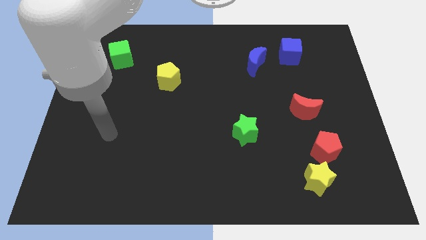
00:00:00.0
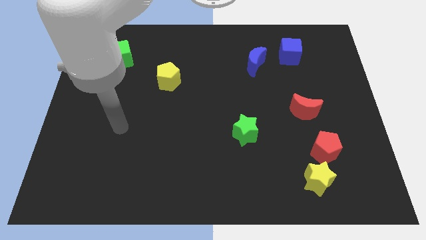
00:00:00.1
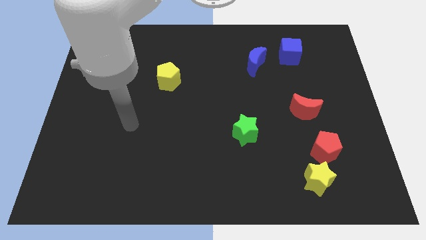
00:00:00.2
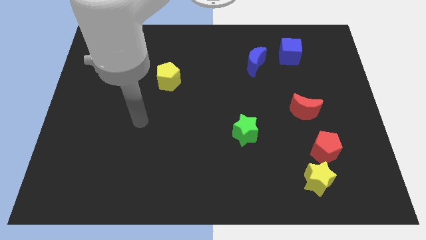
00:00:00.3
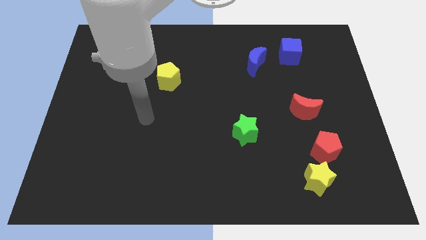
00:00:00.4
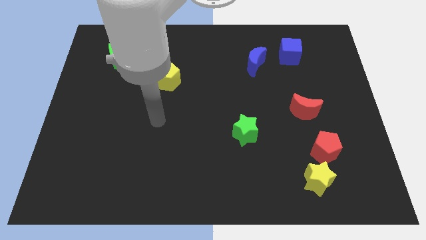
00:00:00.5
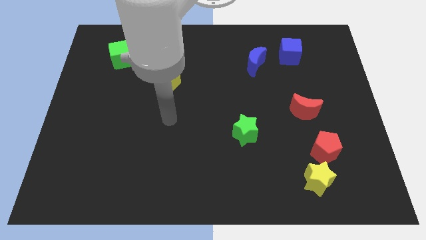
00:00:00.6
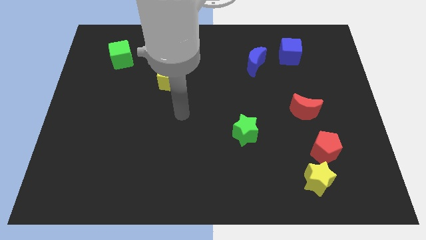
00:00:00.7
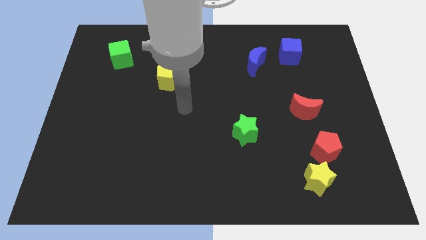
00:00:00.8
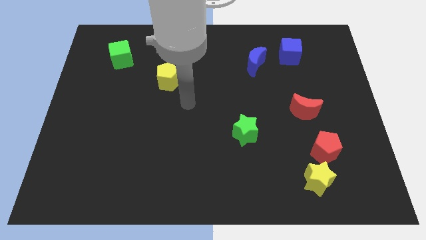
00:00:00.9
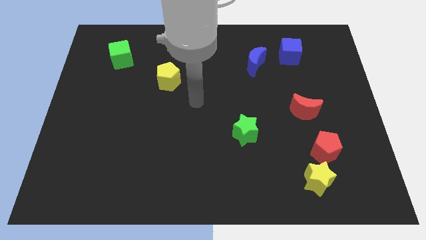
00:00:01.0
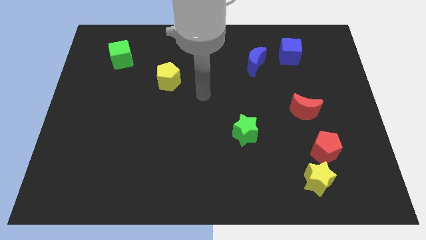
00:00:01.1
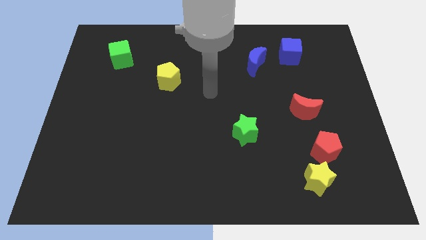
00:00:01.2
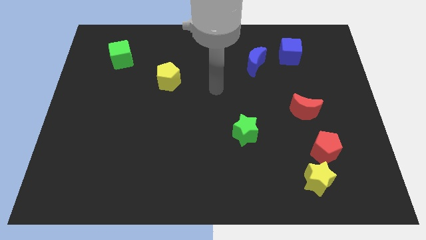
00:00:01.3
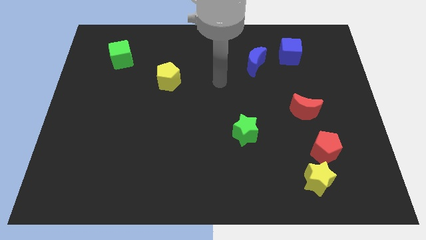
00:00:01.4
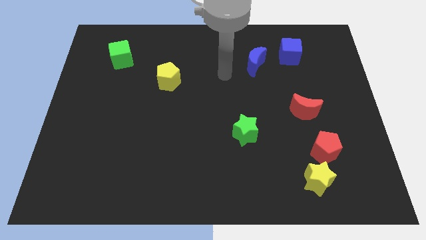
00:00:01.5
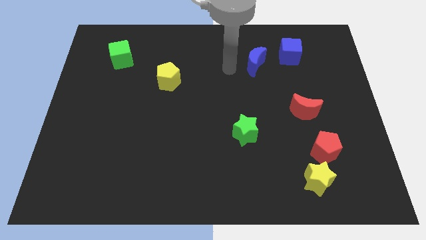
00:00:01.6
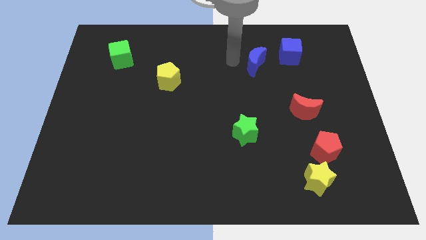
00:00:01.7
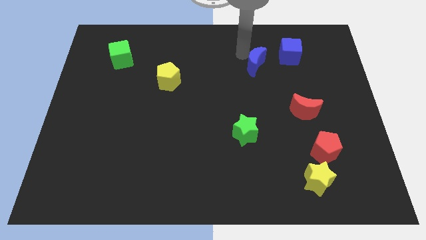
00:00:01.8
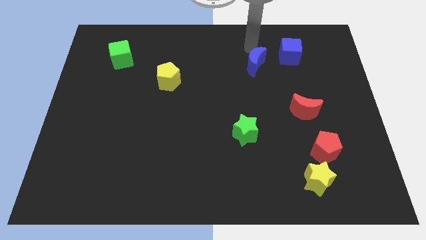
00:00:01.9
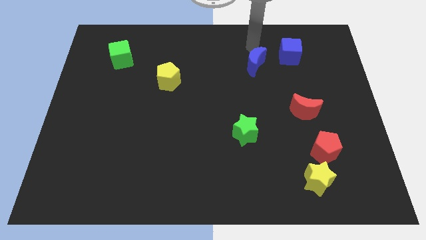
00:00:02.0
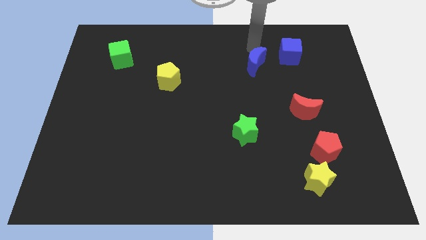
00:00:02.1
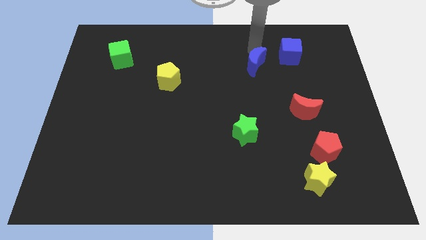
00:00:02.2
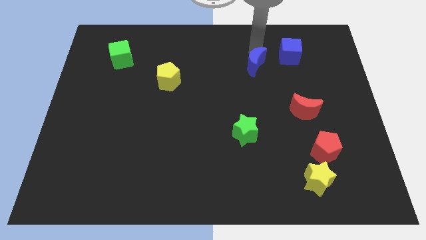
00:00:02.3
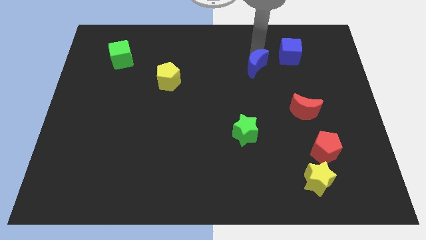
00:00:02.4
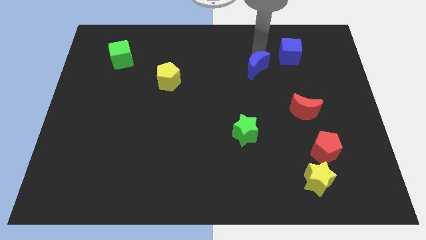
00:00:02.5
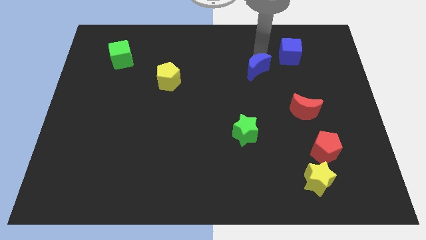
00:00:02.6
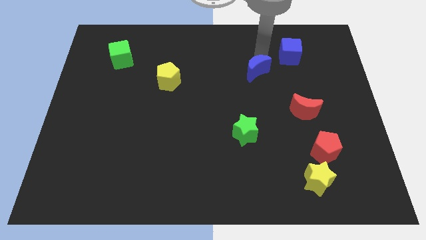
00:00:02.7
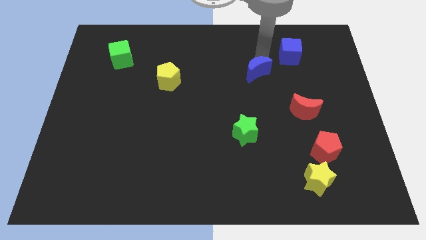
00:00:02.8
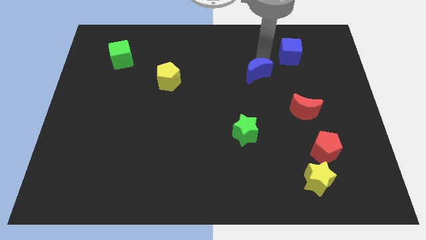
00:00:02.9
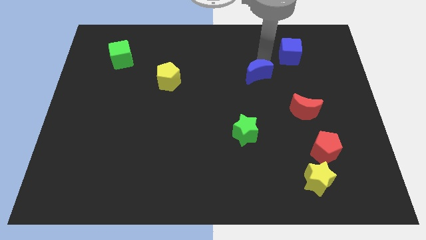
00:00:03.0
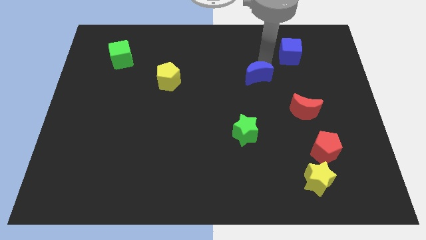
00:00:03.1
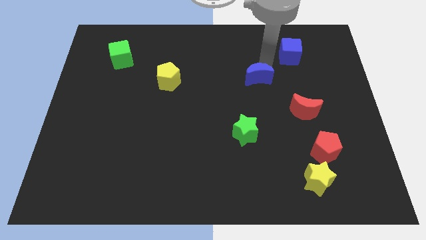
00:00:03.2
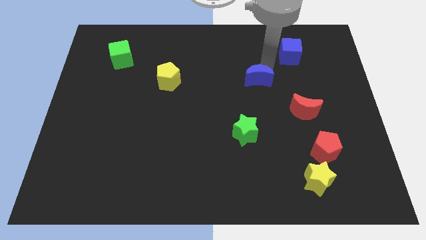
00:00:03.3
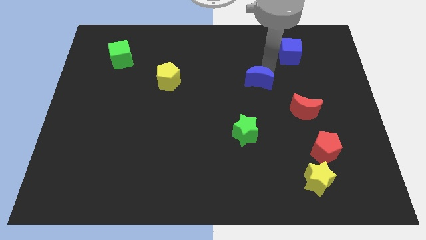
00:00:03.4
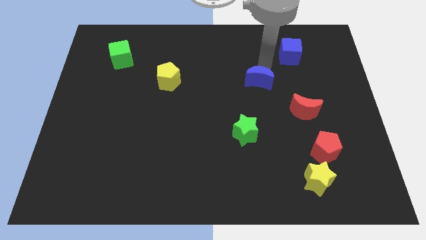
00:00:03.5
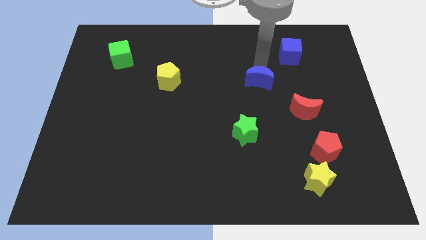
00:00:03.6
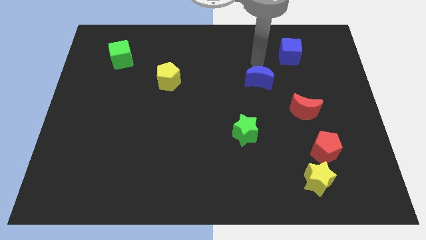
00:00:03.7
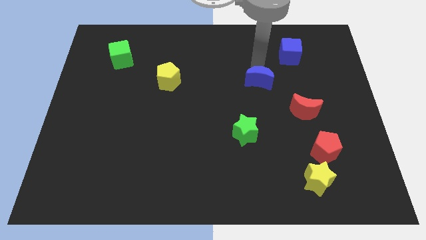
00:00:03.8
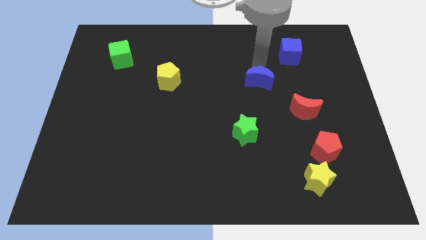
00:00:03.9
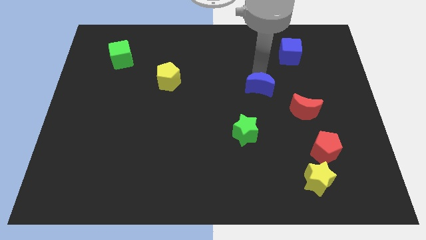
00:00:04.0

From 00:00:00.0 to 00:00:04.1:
slightly push the blue moon down

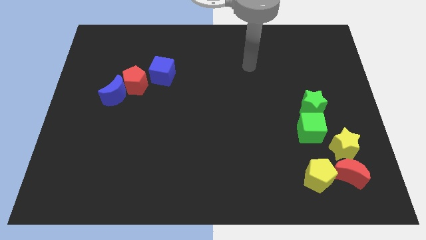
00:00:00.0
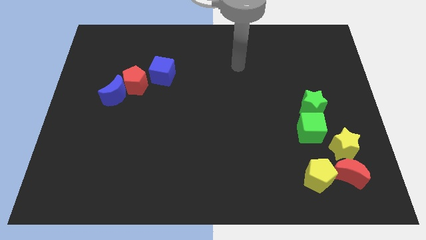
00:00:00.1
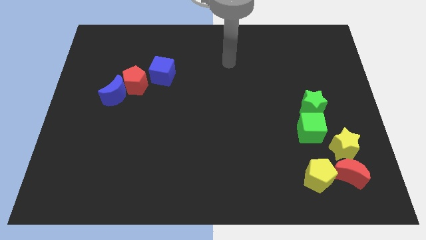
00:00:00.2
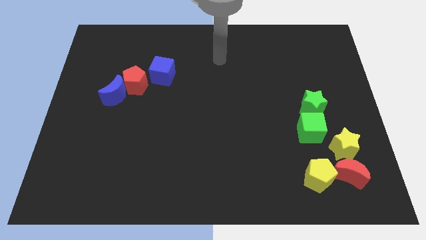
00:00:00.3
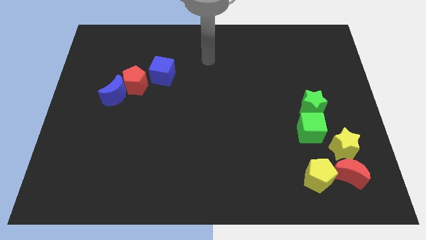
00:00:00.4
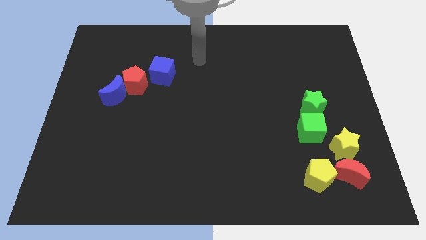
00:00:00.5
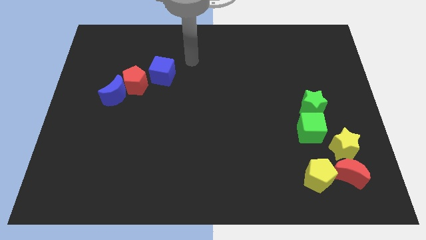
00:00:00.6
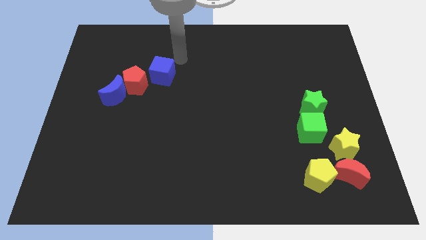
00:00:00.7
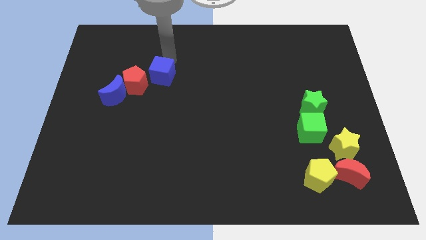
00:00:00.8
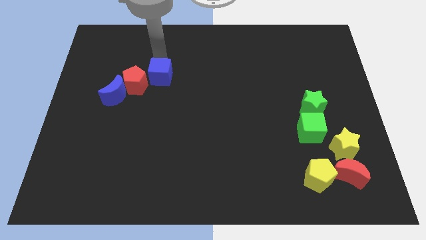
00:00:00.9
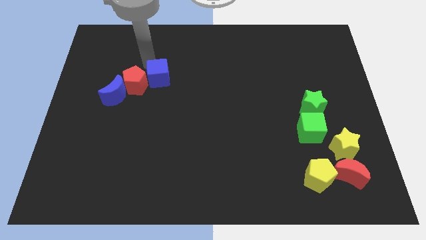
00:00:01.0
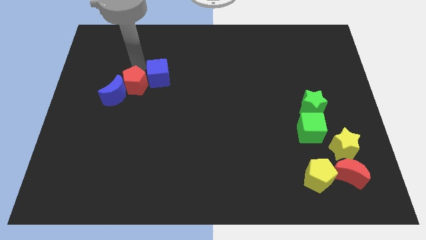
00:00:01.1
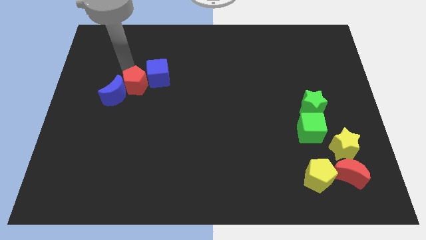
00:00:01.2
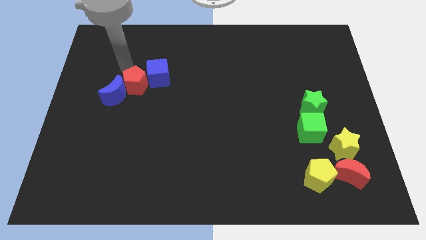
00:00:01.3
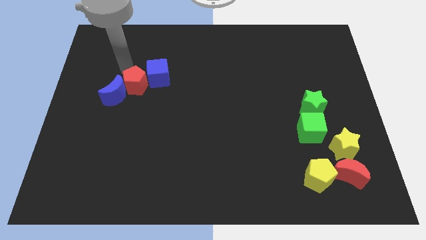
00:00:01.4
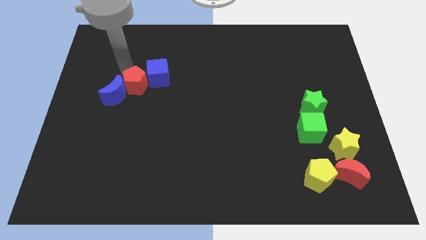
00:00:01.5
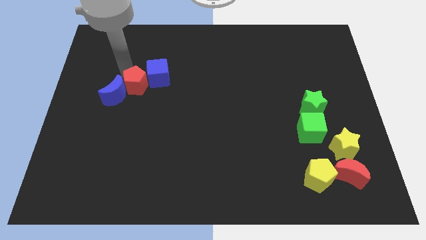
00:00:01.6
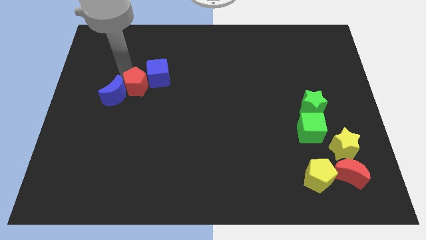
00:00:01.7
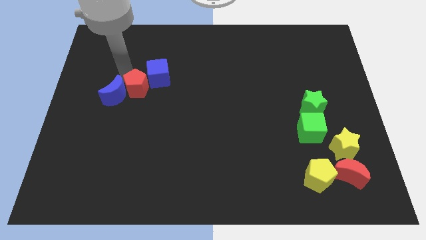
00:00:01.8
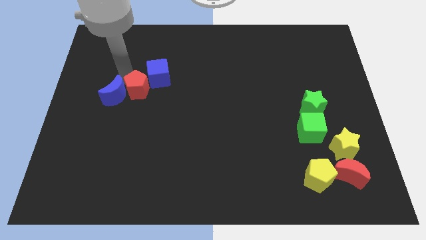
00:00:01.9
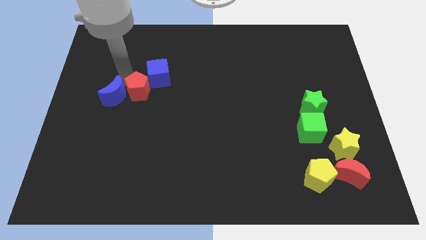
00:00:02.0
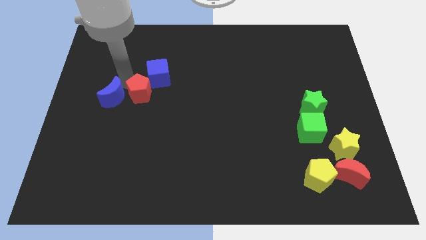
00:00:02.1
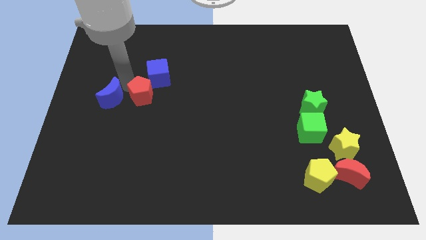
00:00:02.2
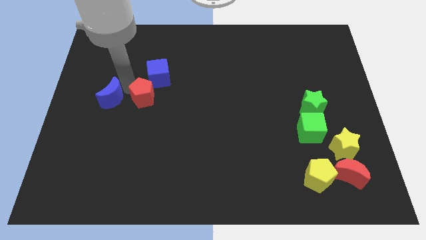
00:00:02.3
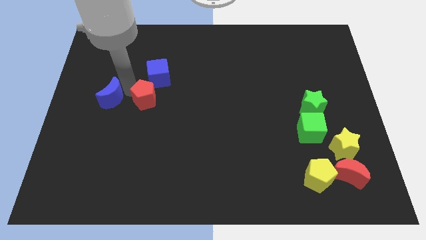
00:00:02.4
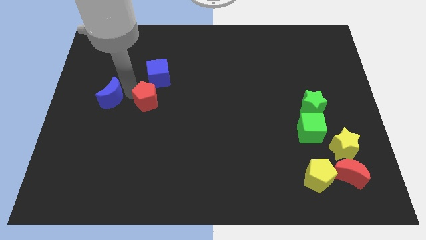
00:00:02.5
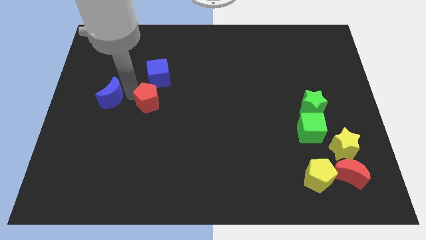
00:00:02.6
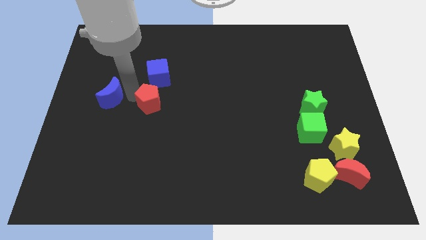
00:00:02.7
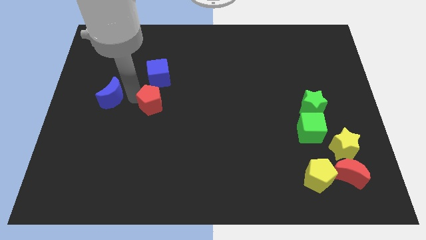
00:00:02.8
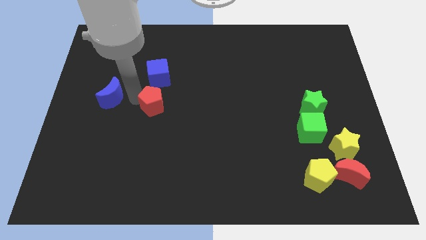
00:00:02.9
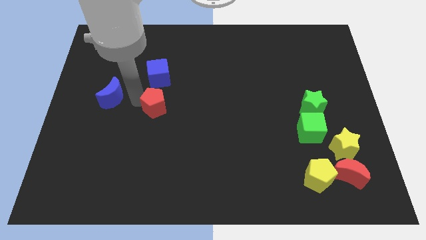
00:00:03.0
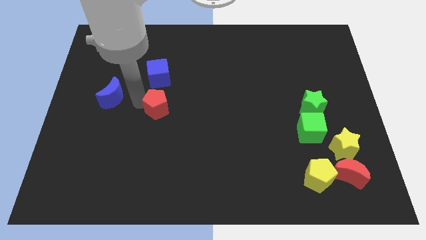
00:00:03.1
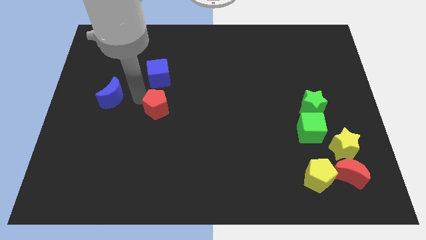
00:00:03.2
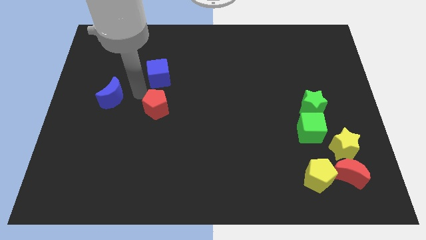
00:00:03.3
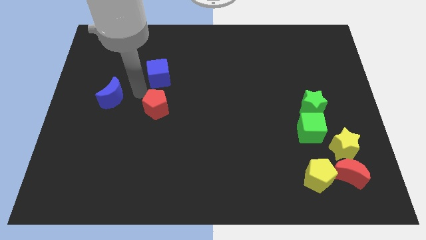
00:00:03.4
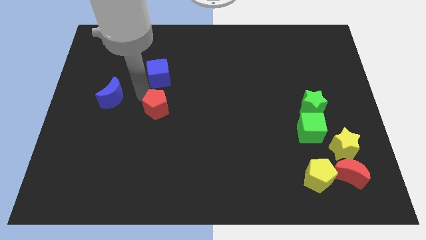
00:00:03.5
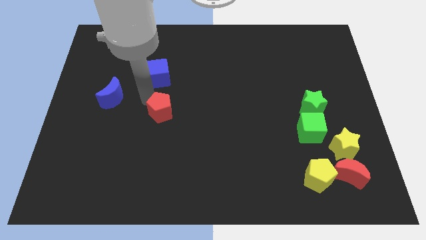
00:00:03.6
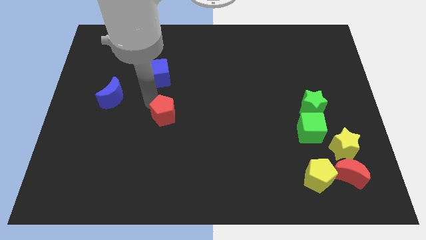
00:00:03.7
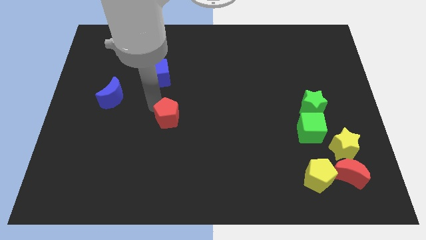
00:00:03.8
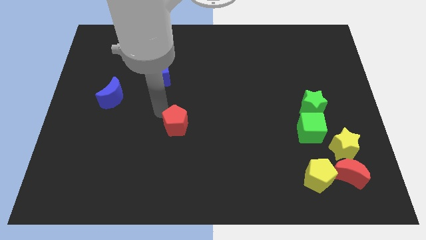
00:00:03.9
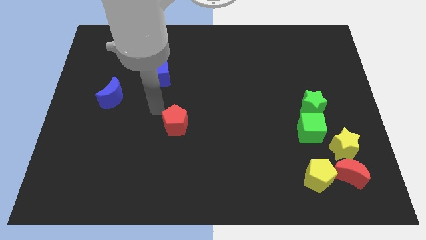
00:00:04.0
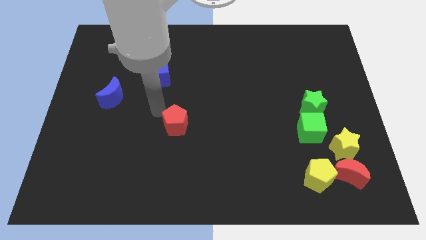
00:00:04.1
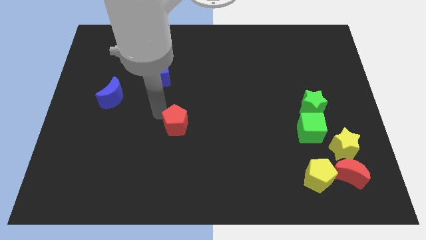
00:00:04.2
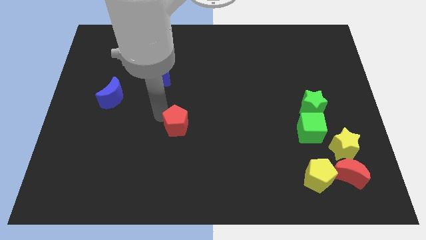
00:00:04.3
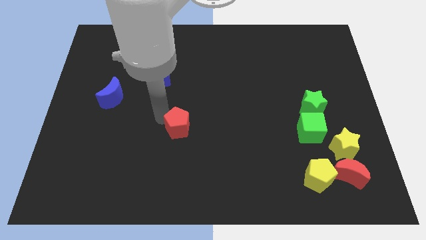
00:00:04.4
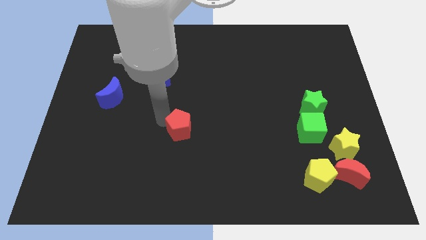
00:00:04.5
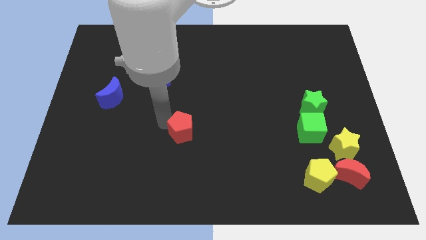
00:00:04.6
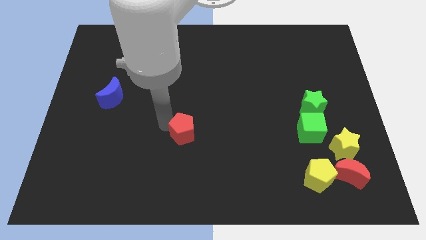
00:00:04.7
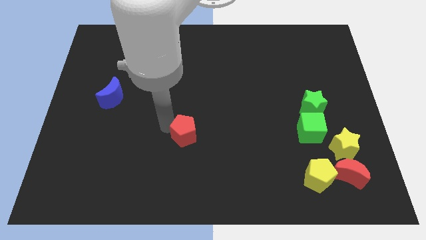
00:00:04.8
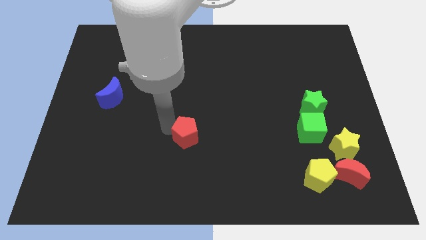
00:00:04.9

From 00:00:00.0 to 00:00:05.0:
slide the red pentagon downwards and then to the right
